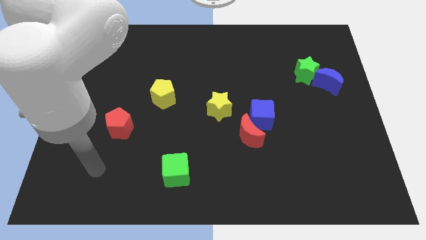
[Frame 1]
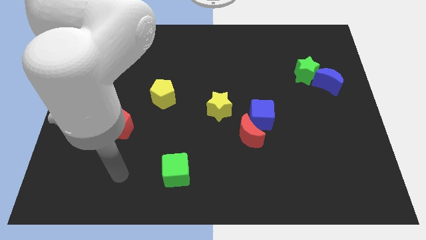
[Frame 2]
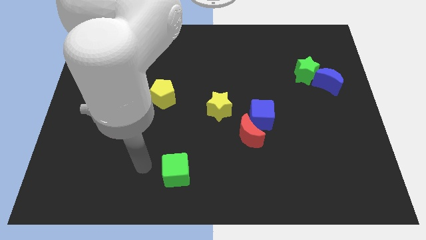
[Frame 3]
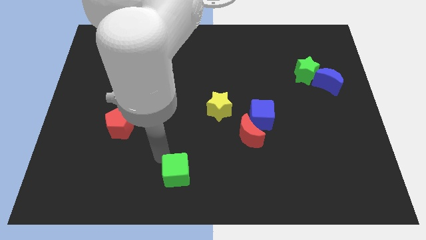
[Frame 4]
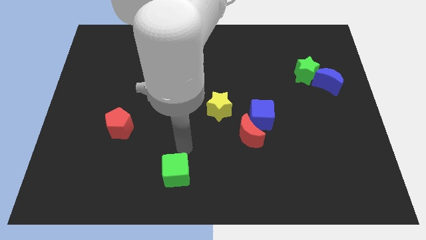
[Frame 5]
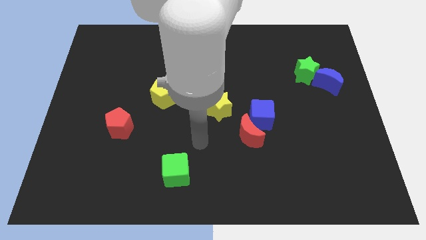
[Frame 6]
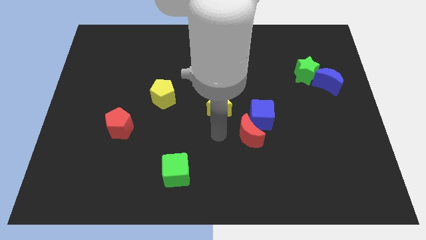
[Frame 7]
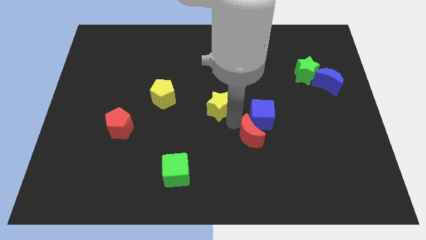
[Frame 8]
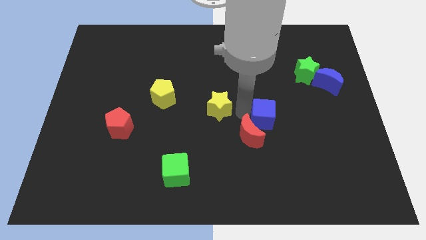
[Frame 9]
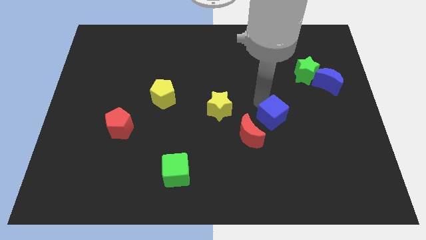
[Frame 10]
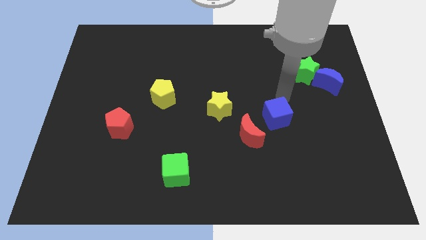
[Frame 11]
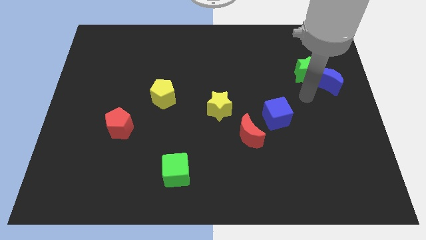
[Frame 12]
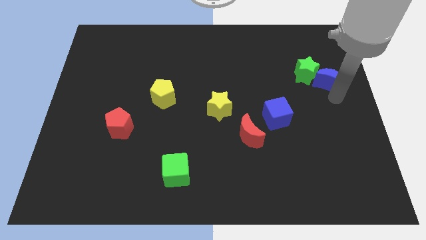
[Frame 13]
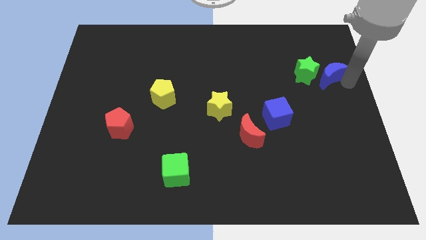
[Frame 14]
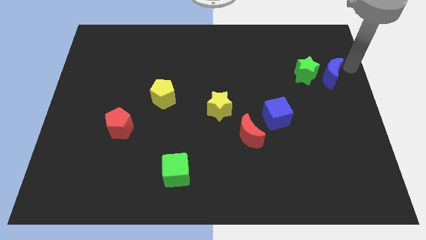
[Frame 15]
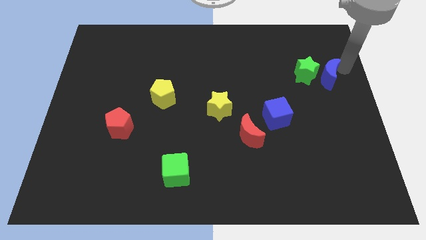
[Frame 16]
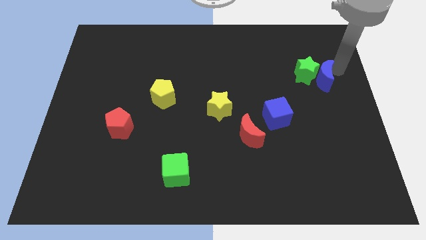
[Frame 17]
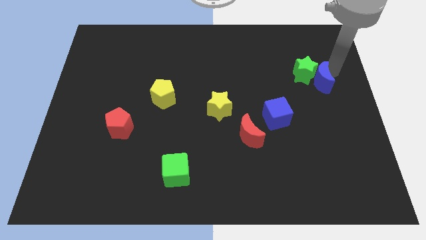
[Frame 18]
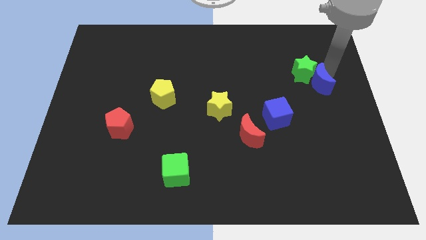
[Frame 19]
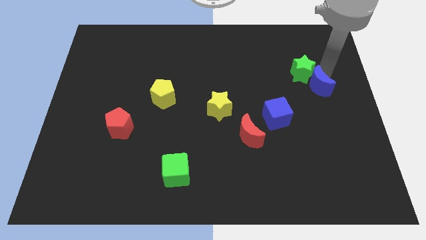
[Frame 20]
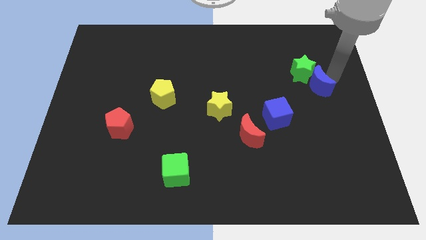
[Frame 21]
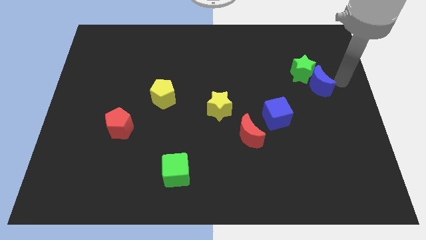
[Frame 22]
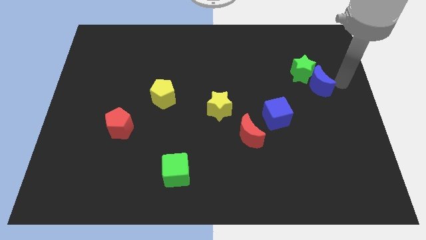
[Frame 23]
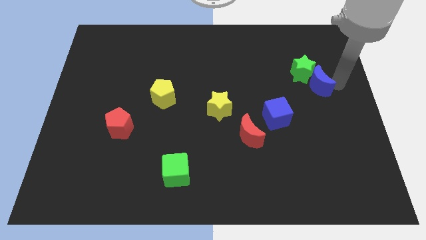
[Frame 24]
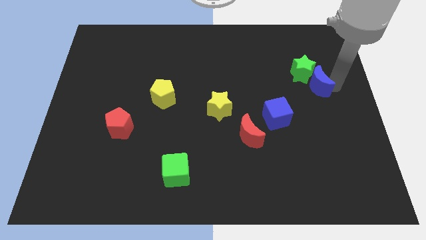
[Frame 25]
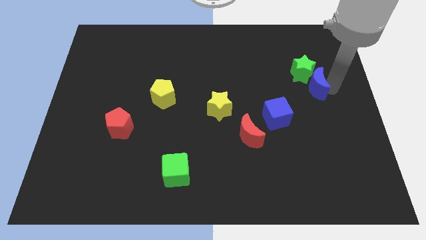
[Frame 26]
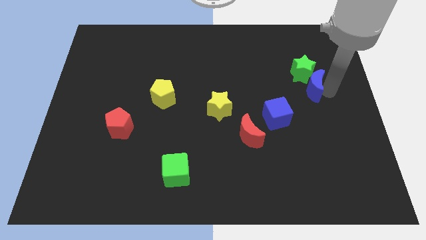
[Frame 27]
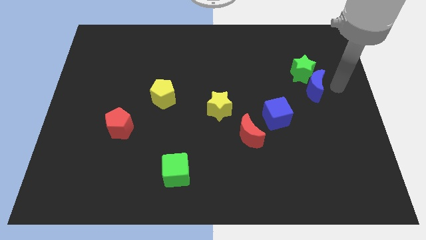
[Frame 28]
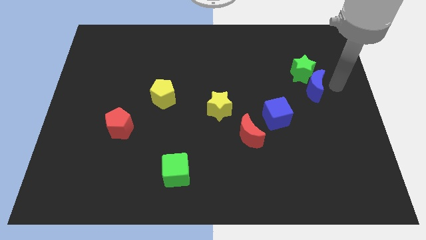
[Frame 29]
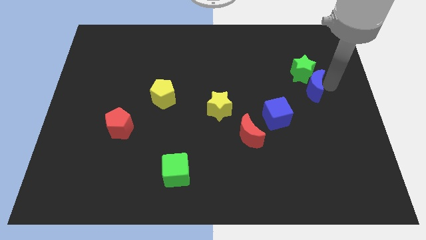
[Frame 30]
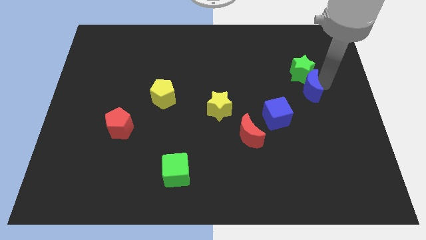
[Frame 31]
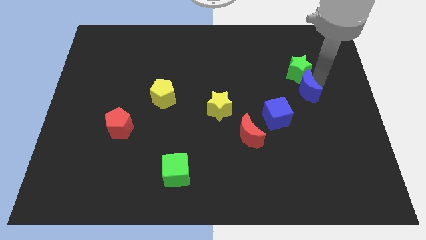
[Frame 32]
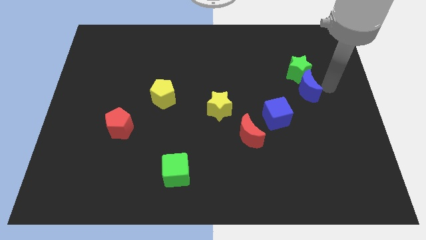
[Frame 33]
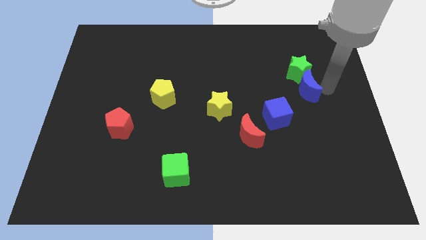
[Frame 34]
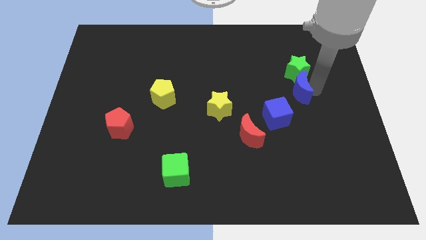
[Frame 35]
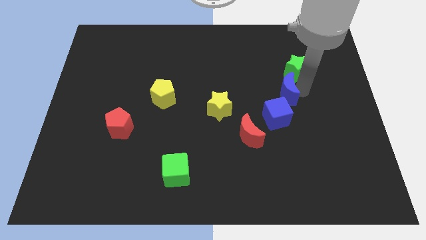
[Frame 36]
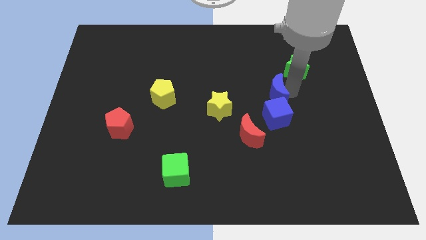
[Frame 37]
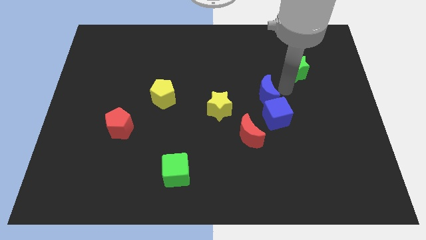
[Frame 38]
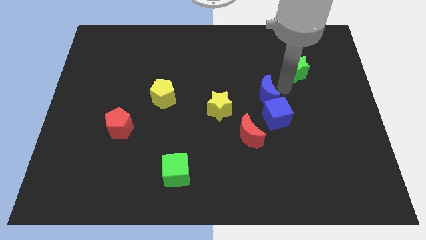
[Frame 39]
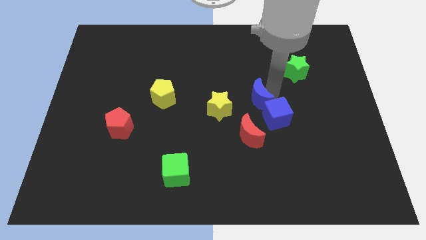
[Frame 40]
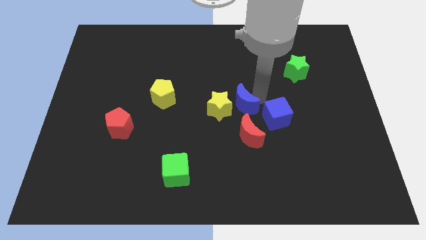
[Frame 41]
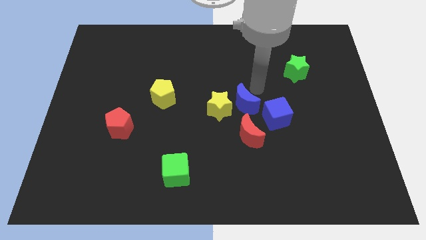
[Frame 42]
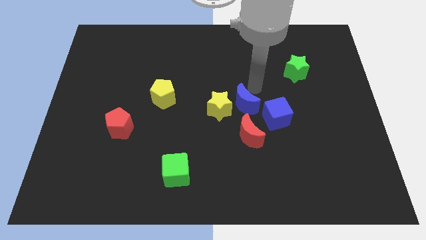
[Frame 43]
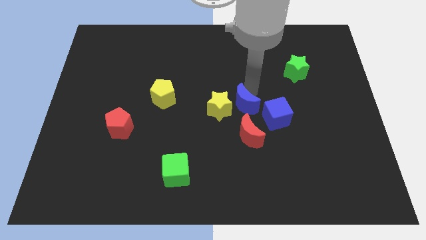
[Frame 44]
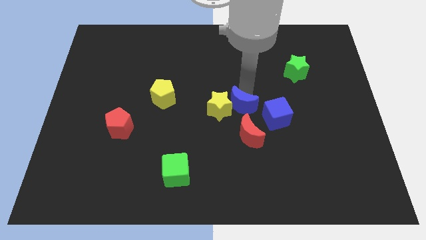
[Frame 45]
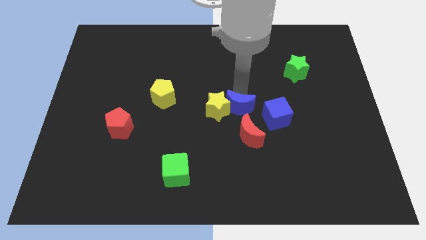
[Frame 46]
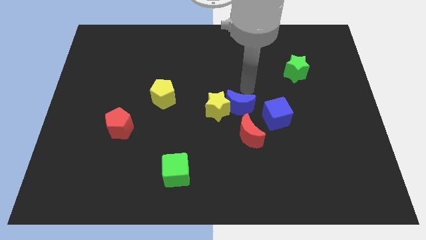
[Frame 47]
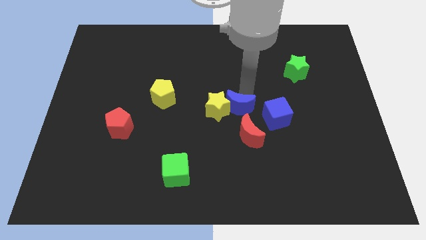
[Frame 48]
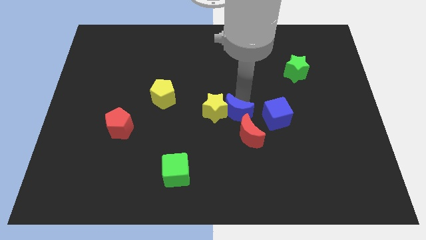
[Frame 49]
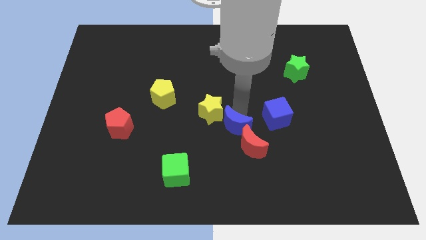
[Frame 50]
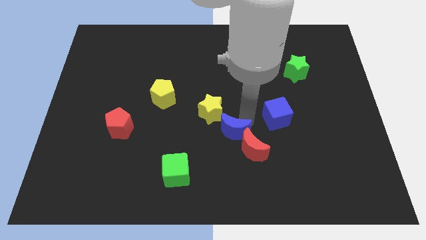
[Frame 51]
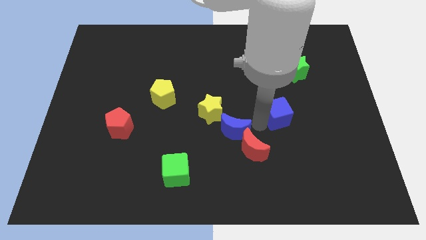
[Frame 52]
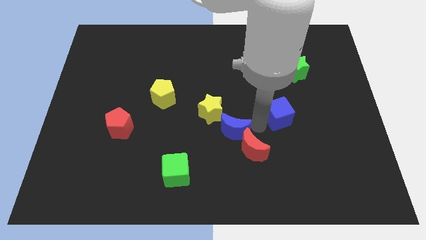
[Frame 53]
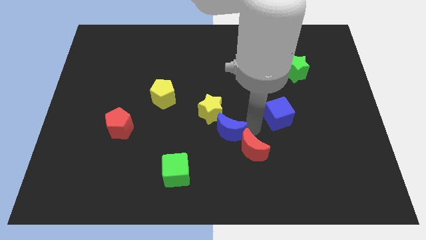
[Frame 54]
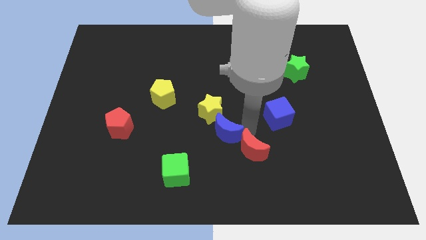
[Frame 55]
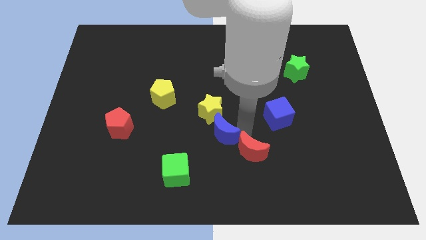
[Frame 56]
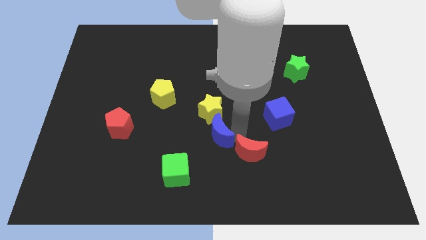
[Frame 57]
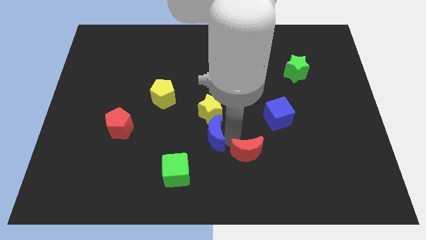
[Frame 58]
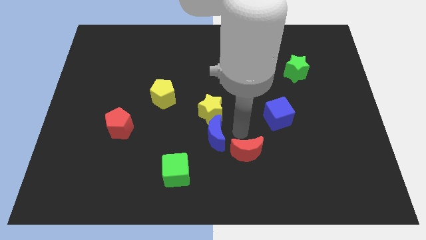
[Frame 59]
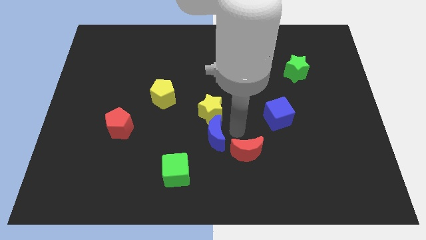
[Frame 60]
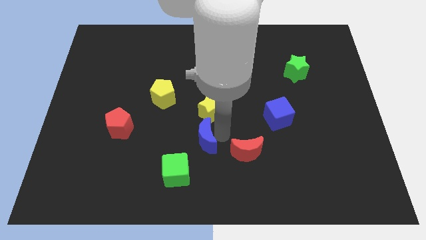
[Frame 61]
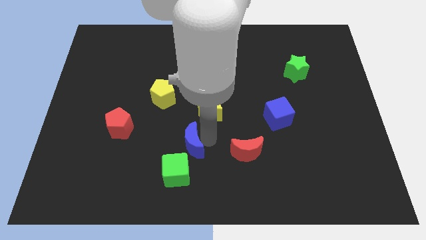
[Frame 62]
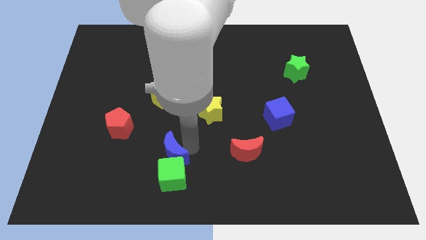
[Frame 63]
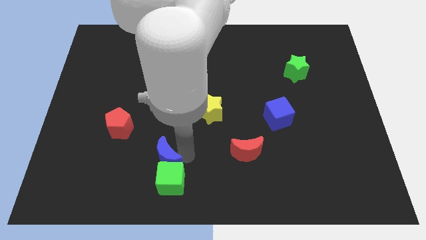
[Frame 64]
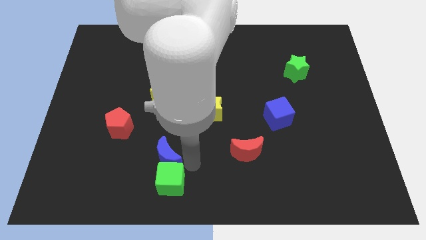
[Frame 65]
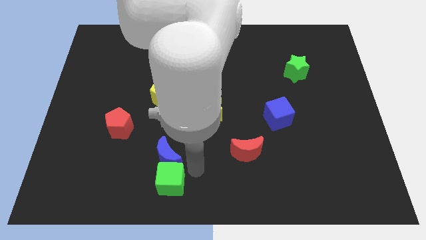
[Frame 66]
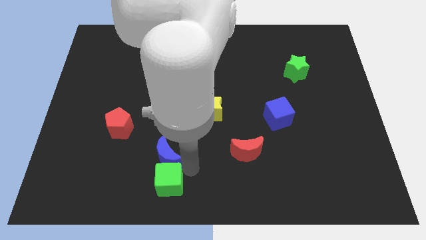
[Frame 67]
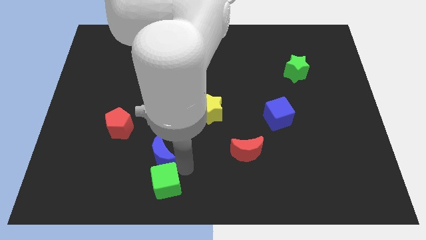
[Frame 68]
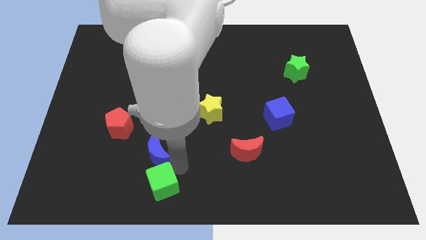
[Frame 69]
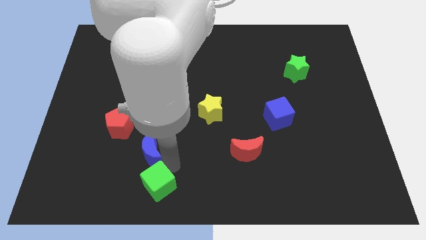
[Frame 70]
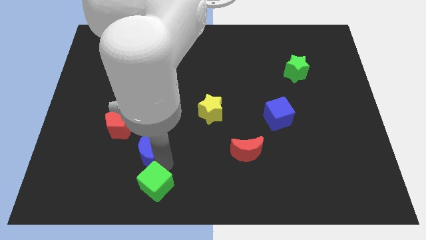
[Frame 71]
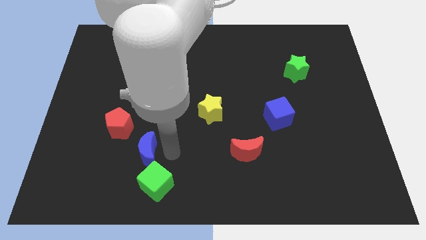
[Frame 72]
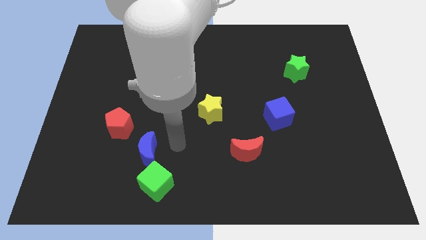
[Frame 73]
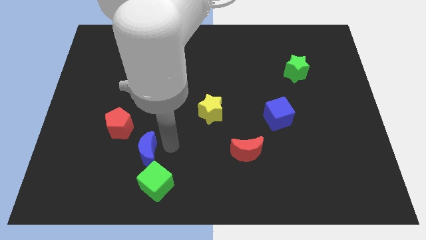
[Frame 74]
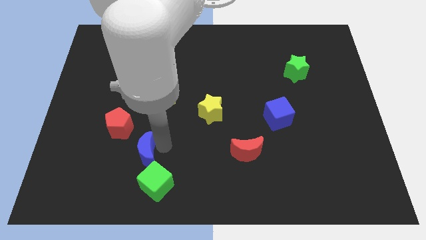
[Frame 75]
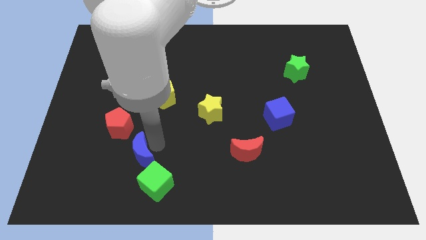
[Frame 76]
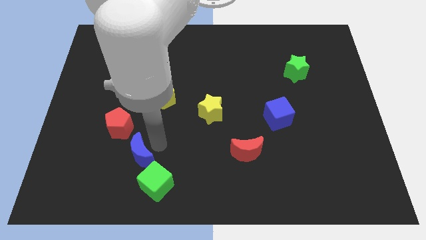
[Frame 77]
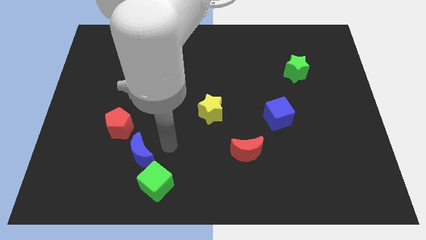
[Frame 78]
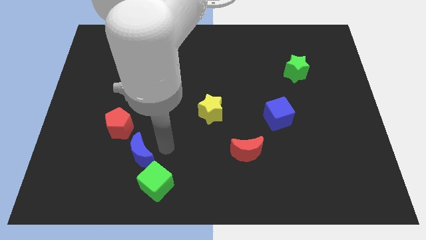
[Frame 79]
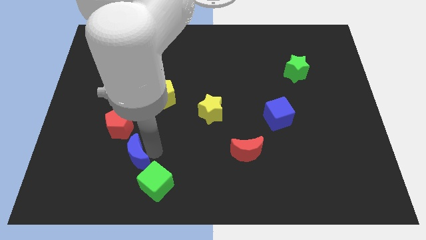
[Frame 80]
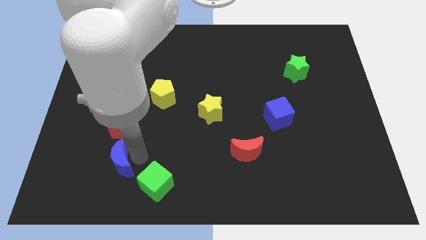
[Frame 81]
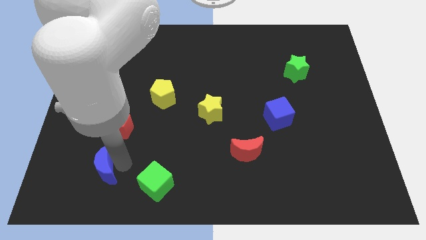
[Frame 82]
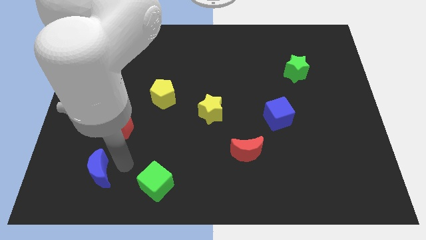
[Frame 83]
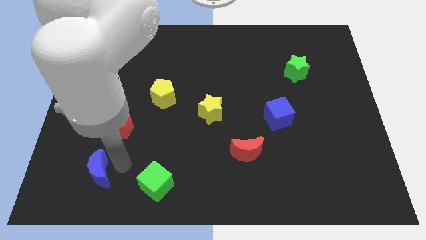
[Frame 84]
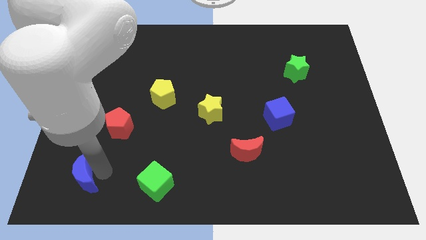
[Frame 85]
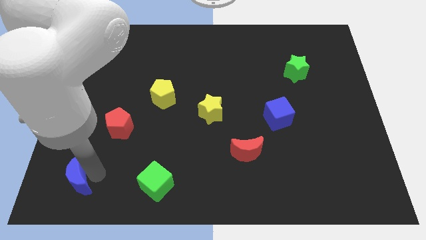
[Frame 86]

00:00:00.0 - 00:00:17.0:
slide the blue moon to the bottom left
